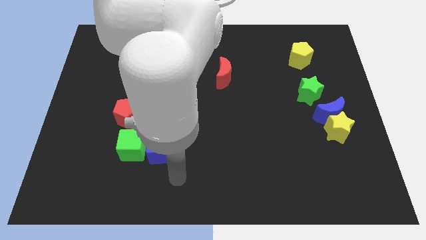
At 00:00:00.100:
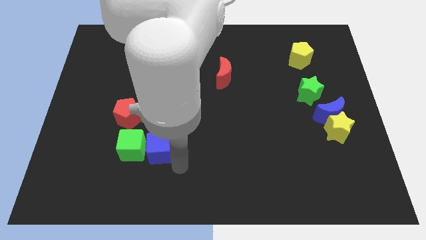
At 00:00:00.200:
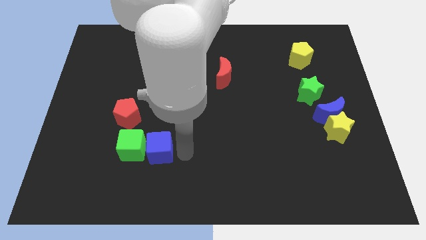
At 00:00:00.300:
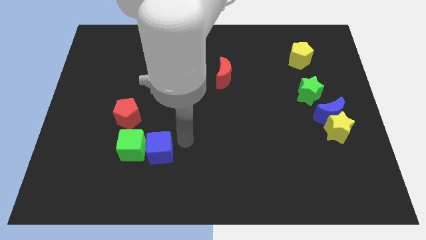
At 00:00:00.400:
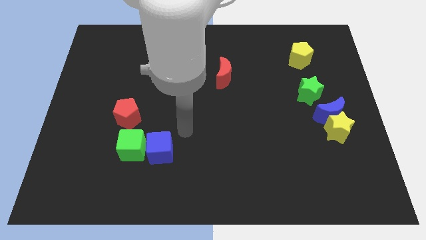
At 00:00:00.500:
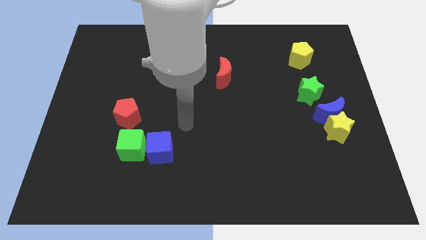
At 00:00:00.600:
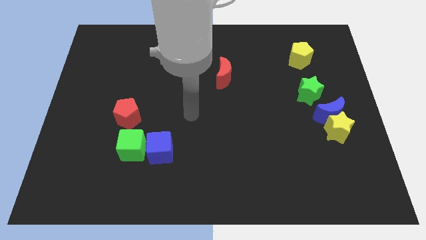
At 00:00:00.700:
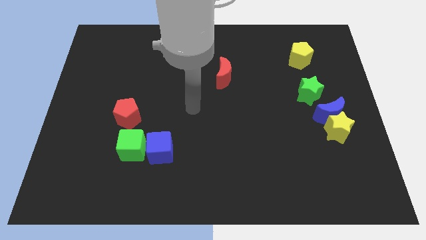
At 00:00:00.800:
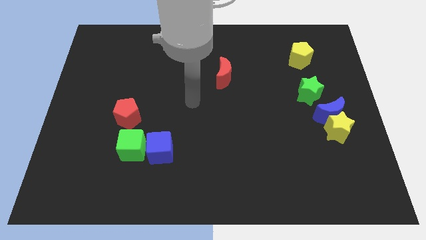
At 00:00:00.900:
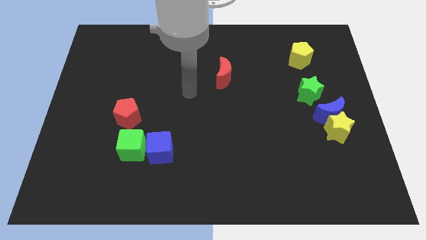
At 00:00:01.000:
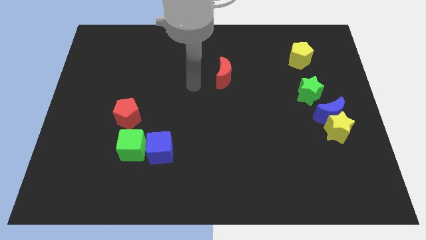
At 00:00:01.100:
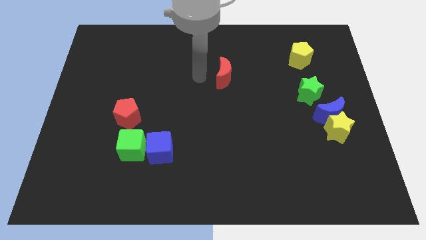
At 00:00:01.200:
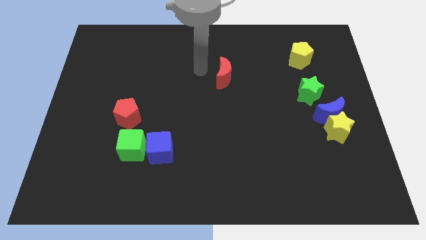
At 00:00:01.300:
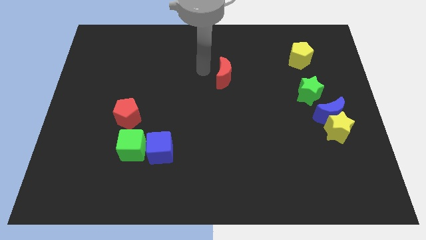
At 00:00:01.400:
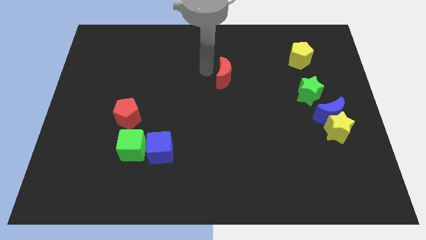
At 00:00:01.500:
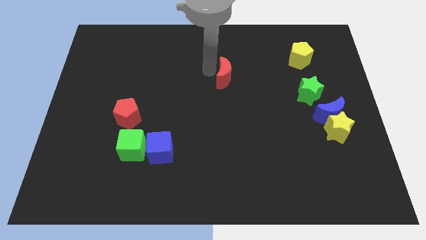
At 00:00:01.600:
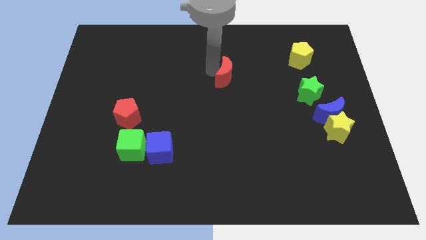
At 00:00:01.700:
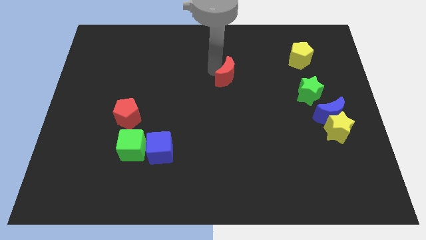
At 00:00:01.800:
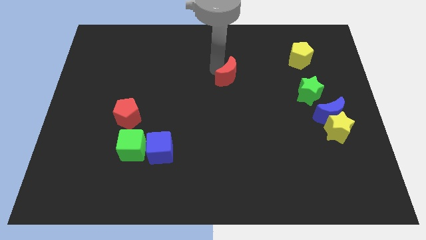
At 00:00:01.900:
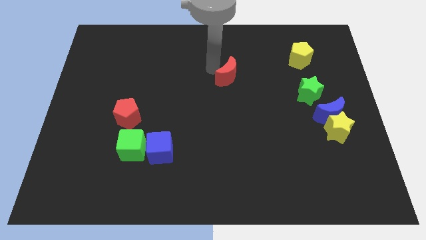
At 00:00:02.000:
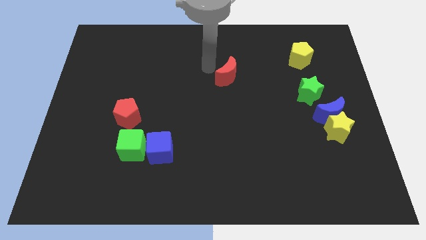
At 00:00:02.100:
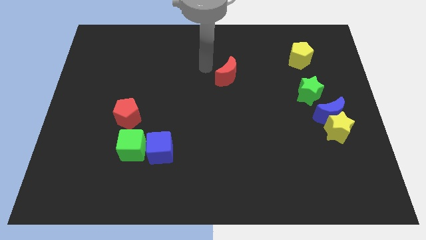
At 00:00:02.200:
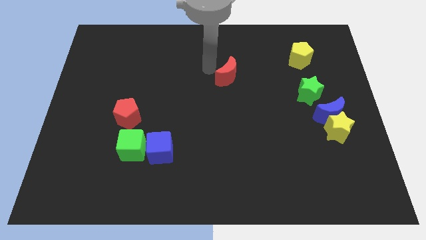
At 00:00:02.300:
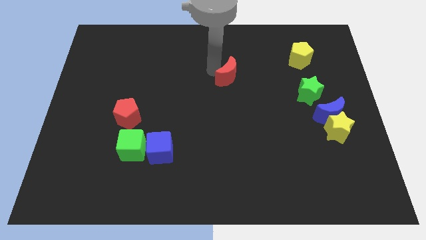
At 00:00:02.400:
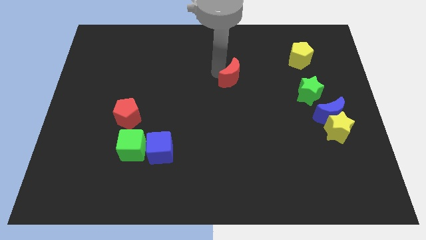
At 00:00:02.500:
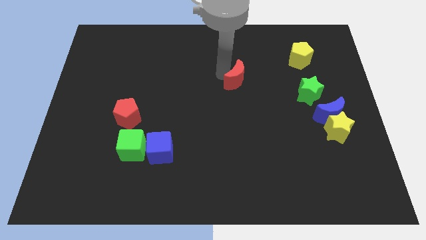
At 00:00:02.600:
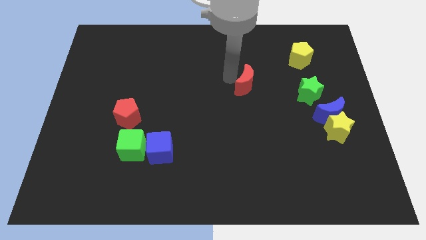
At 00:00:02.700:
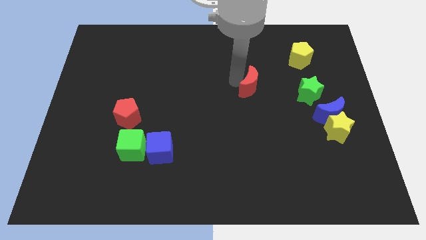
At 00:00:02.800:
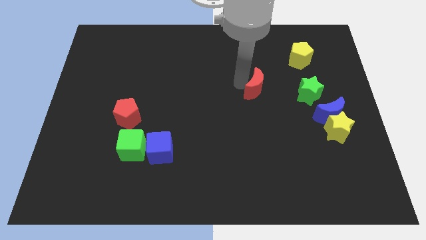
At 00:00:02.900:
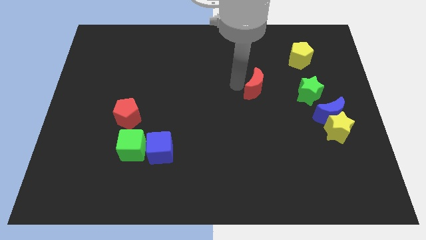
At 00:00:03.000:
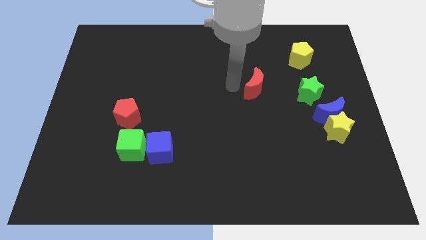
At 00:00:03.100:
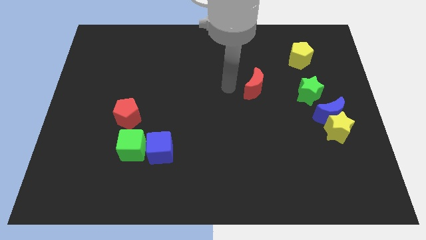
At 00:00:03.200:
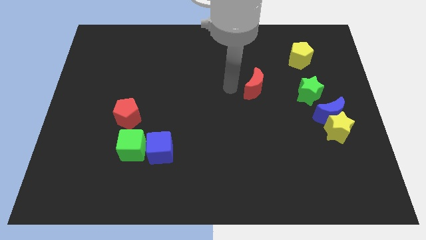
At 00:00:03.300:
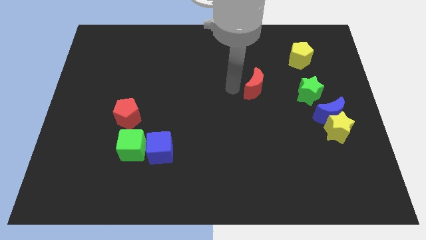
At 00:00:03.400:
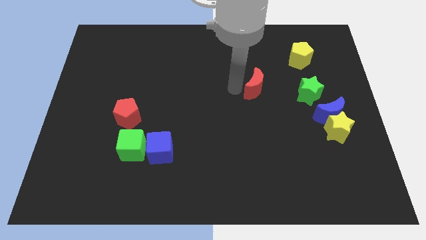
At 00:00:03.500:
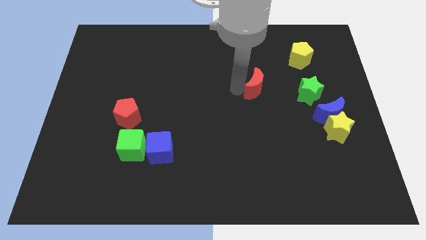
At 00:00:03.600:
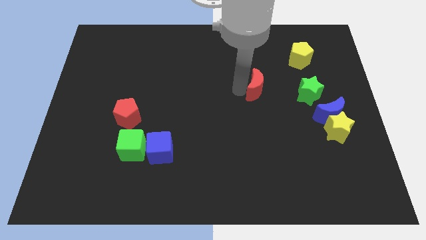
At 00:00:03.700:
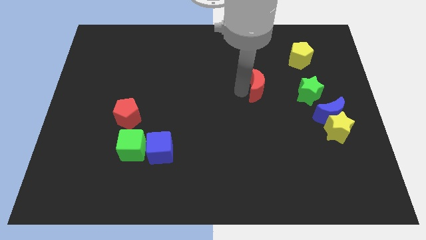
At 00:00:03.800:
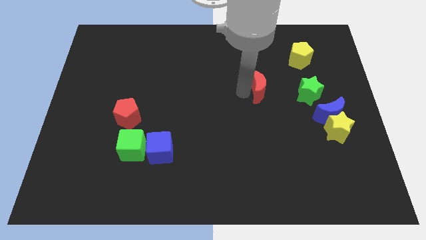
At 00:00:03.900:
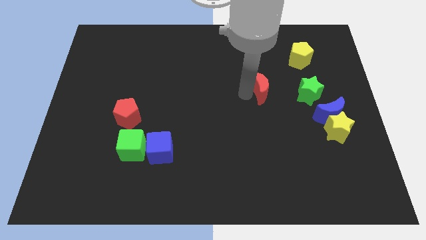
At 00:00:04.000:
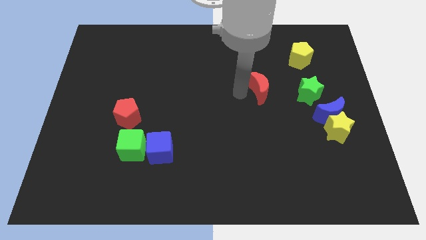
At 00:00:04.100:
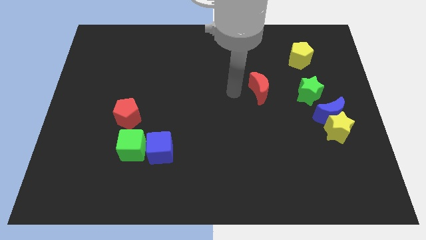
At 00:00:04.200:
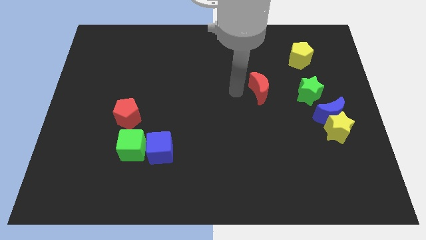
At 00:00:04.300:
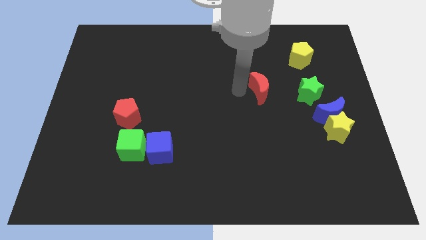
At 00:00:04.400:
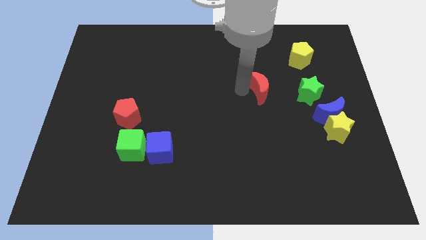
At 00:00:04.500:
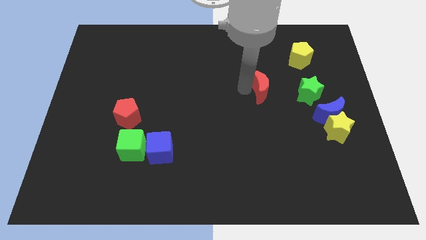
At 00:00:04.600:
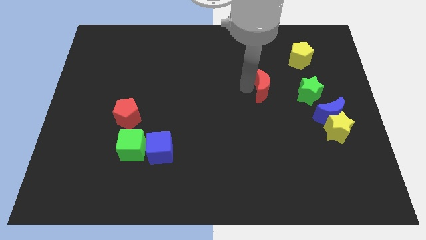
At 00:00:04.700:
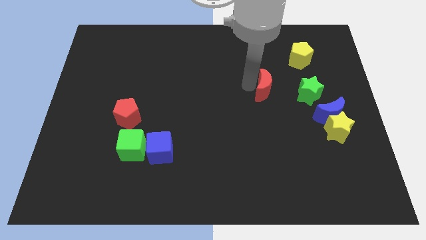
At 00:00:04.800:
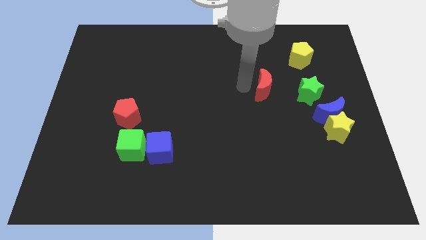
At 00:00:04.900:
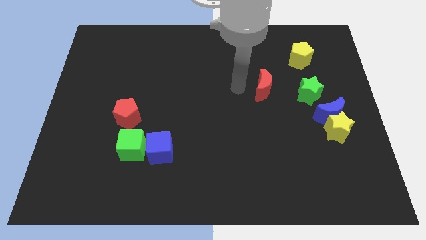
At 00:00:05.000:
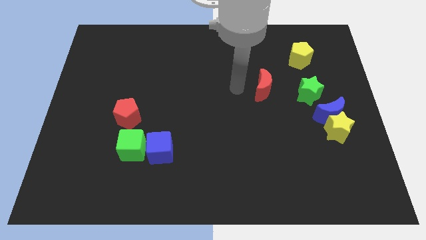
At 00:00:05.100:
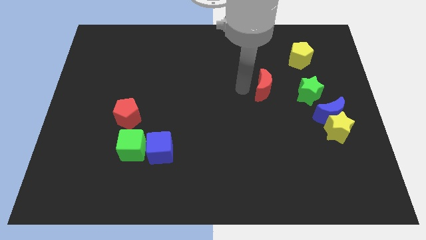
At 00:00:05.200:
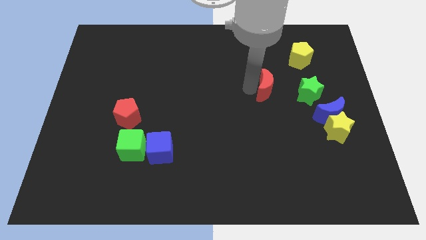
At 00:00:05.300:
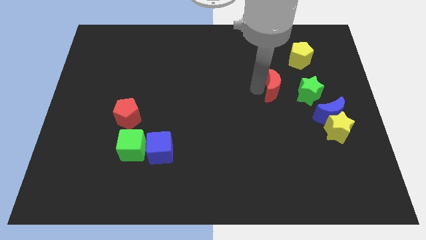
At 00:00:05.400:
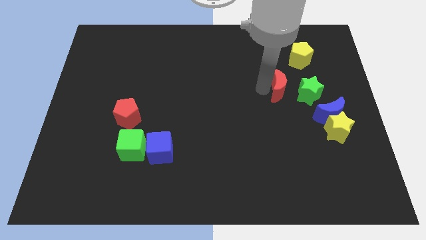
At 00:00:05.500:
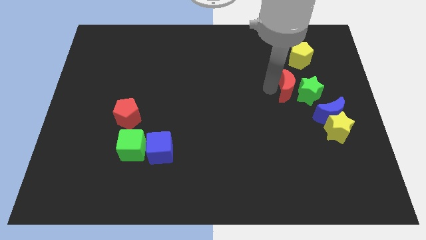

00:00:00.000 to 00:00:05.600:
move the red moon next to the green star
